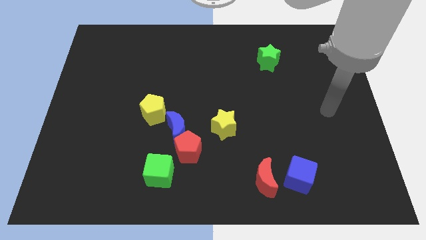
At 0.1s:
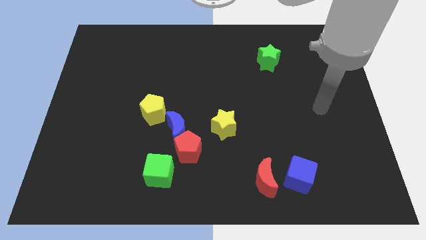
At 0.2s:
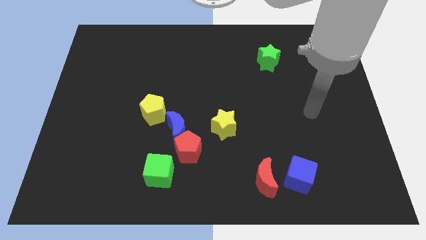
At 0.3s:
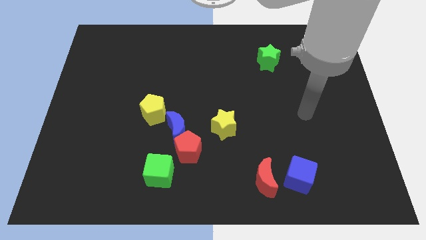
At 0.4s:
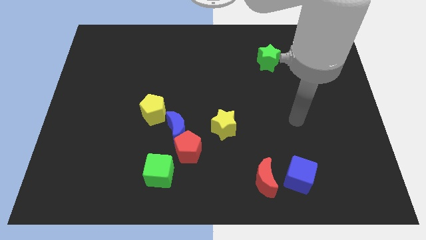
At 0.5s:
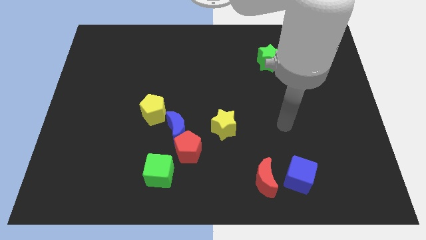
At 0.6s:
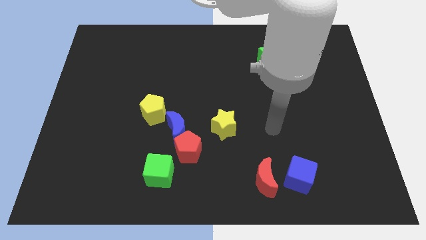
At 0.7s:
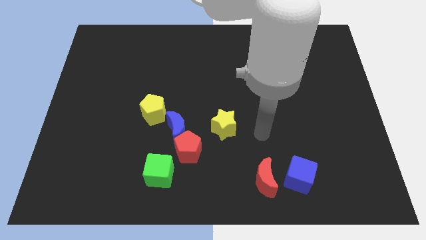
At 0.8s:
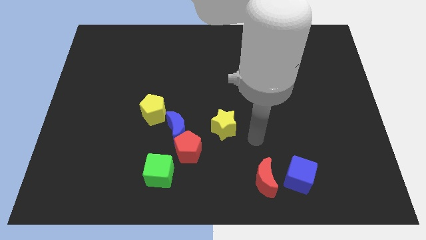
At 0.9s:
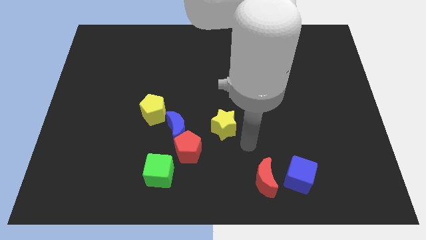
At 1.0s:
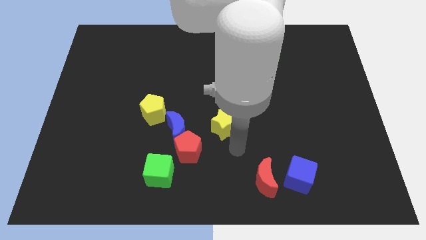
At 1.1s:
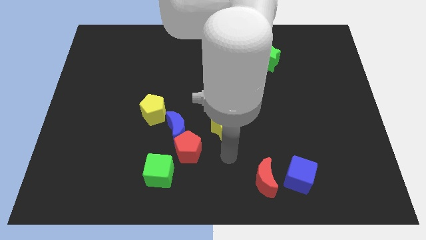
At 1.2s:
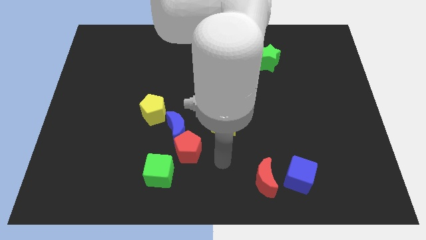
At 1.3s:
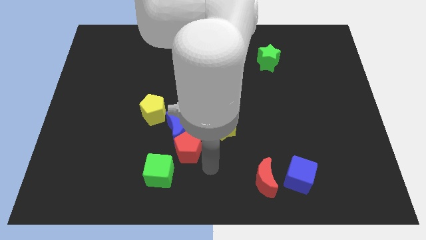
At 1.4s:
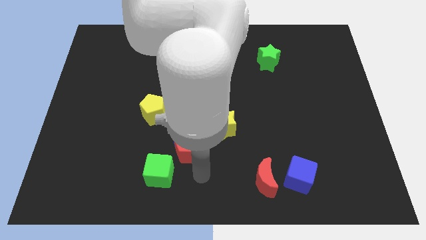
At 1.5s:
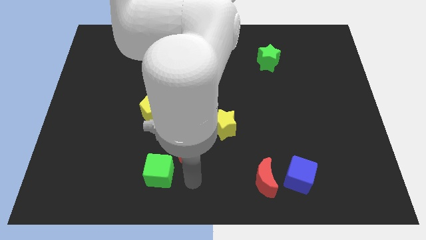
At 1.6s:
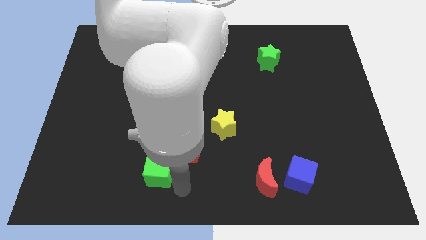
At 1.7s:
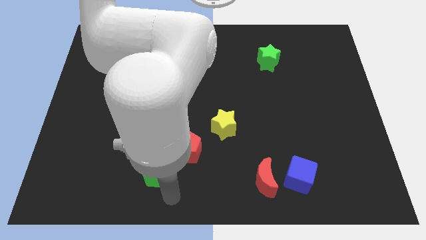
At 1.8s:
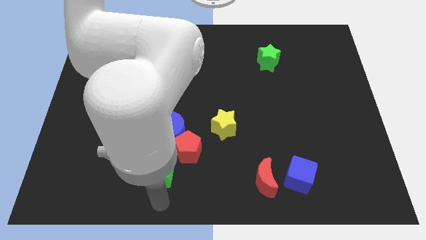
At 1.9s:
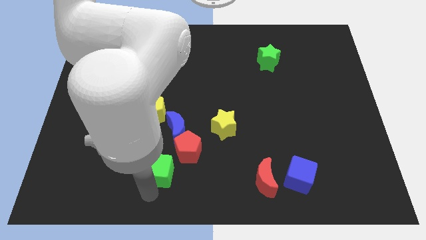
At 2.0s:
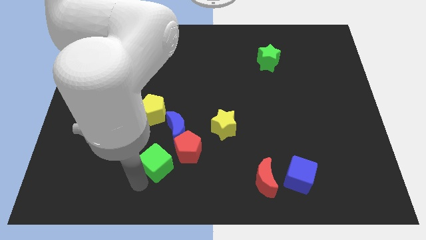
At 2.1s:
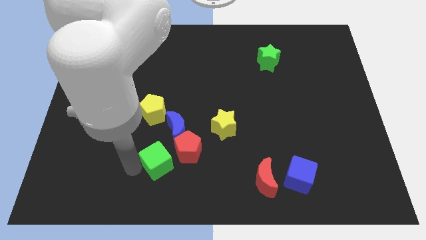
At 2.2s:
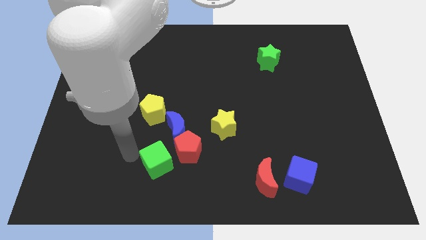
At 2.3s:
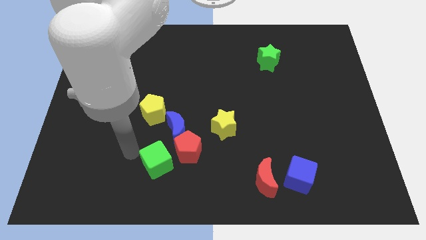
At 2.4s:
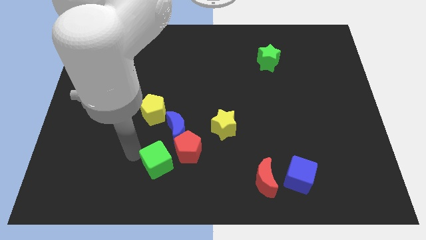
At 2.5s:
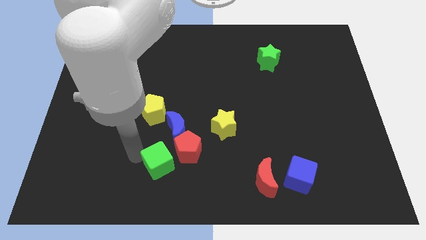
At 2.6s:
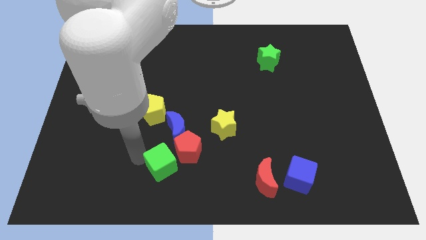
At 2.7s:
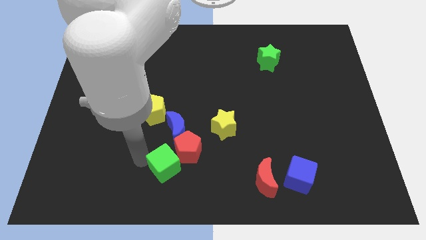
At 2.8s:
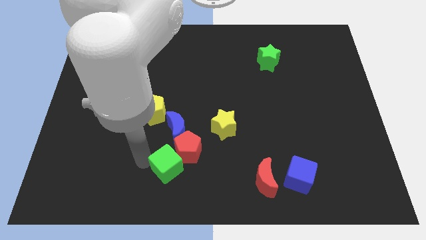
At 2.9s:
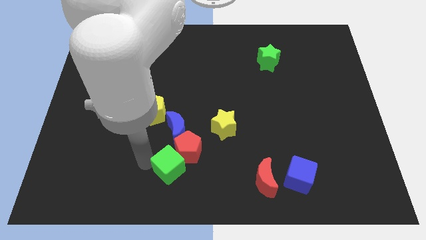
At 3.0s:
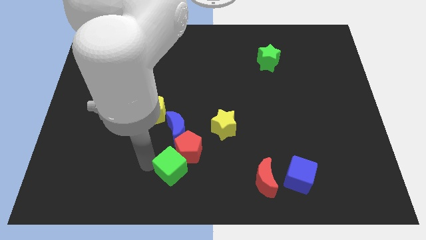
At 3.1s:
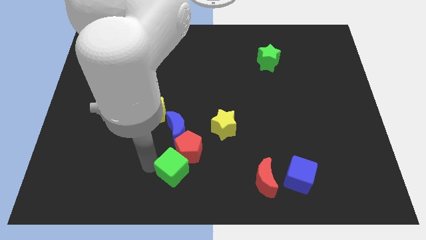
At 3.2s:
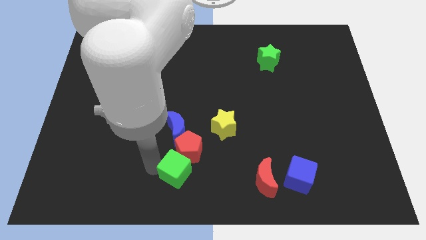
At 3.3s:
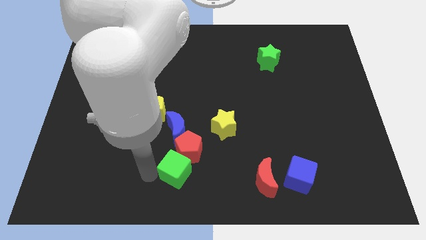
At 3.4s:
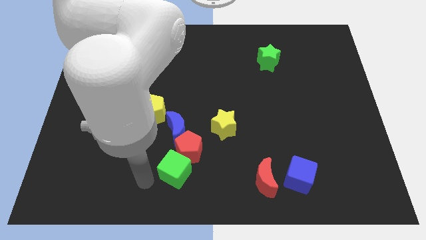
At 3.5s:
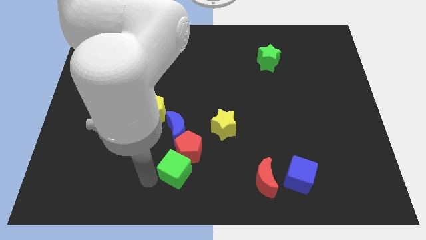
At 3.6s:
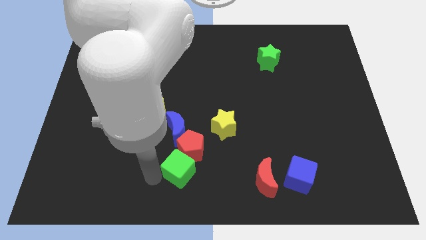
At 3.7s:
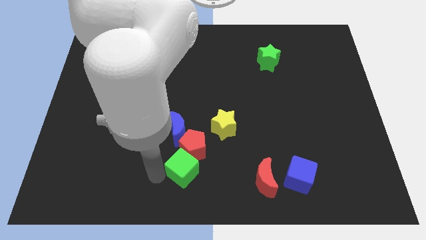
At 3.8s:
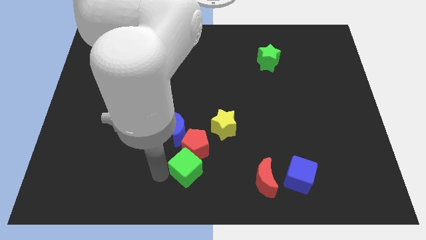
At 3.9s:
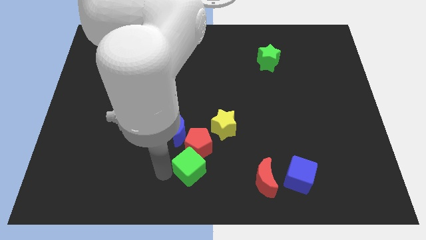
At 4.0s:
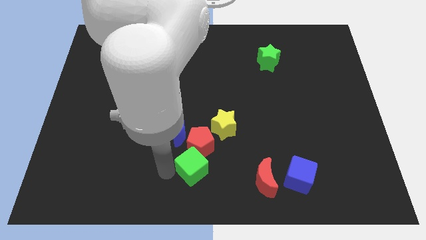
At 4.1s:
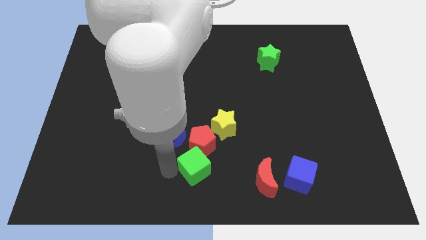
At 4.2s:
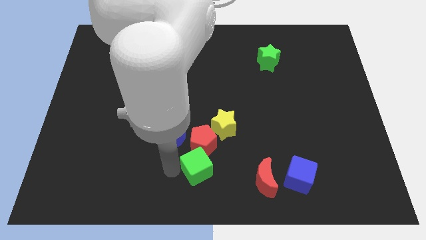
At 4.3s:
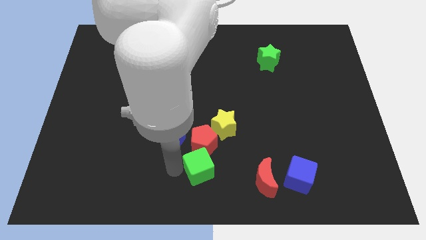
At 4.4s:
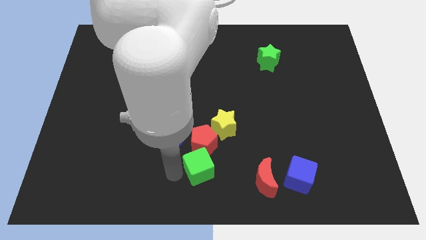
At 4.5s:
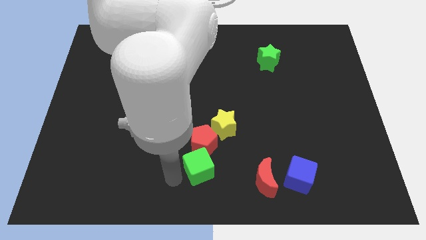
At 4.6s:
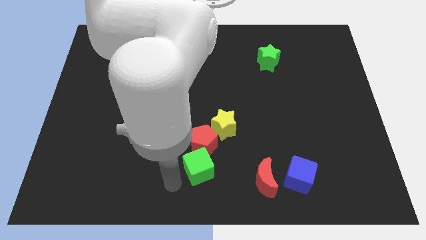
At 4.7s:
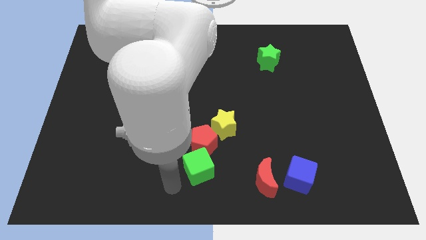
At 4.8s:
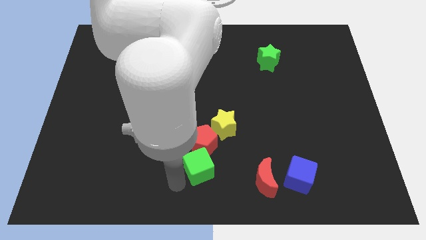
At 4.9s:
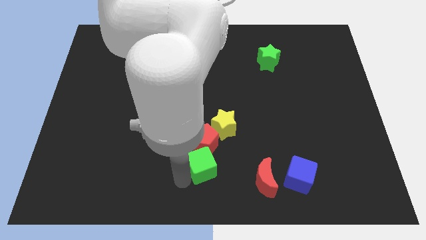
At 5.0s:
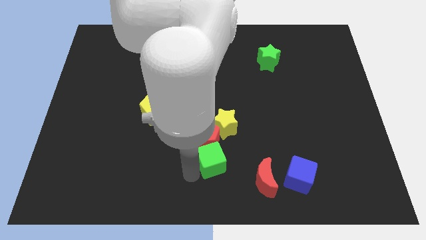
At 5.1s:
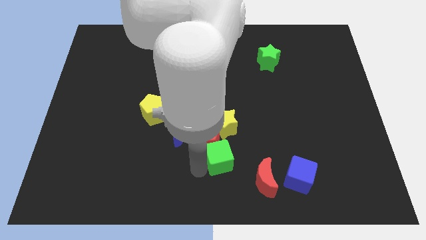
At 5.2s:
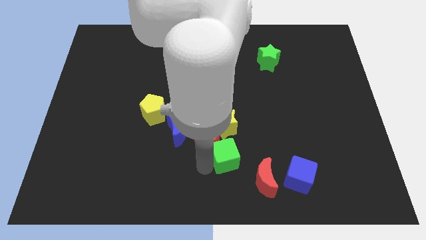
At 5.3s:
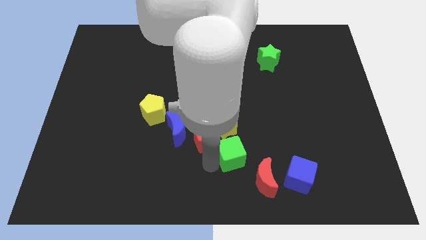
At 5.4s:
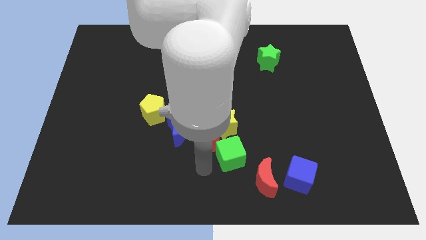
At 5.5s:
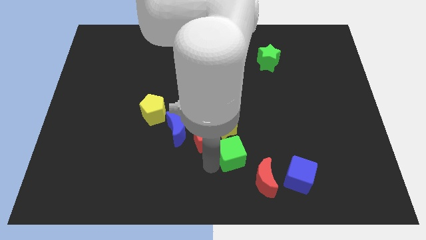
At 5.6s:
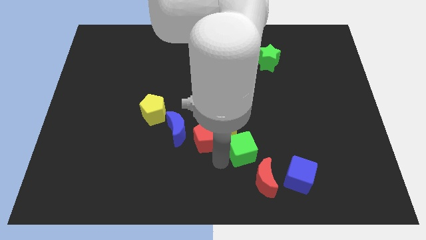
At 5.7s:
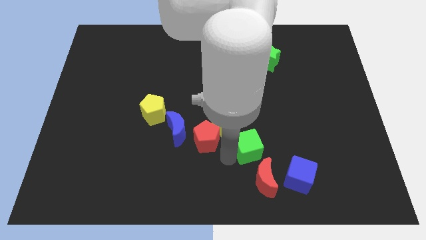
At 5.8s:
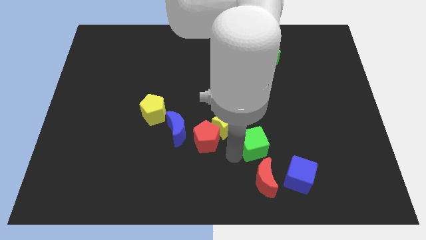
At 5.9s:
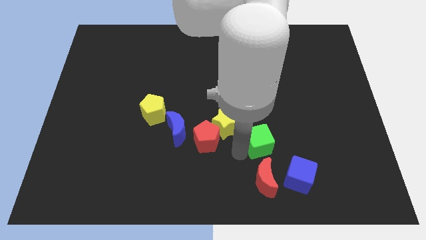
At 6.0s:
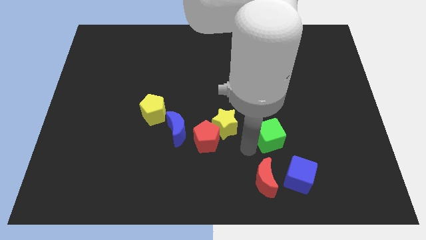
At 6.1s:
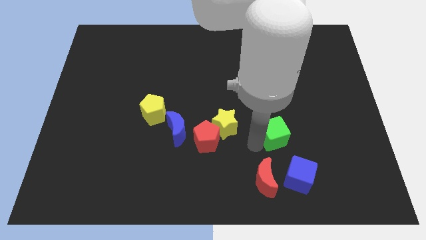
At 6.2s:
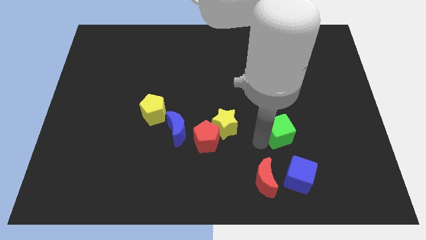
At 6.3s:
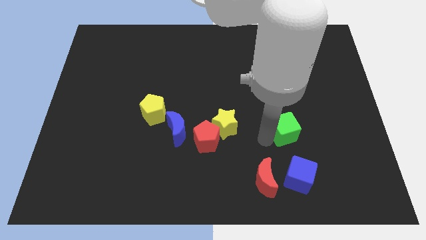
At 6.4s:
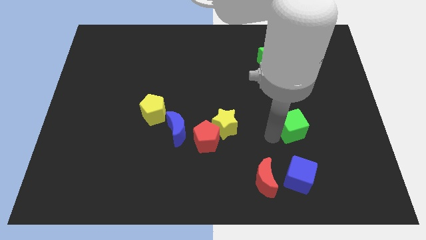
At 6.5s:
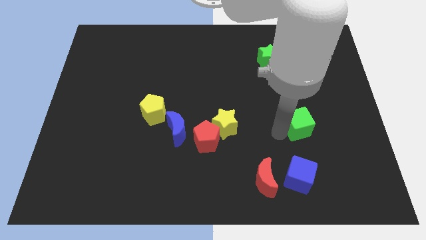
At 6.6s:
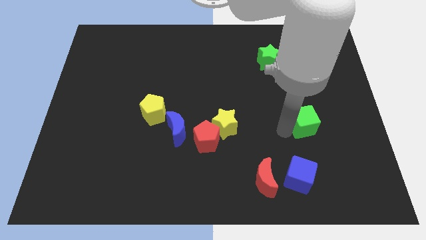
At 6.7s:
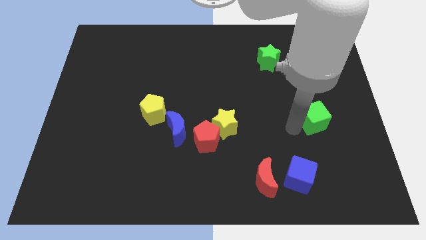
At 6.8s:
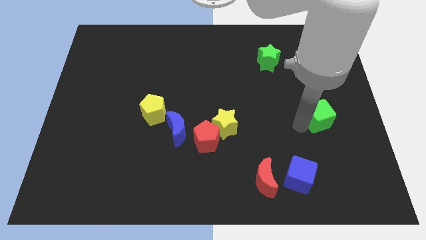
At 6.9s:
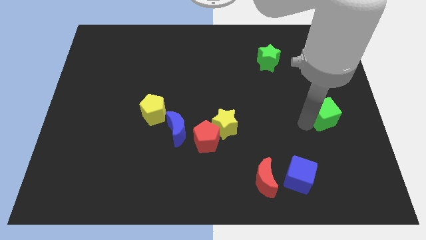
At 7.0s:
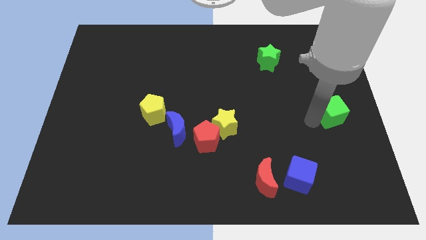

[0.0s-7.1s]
move the green cube to the right side of the board
